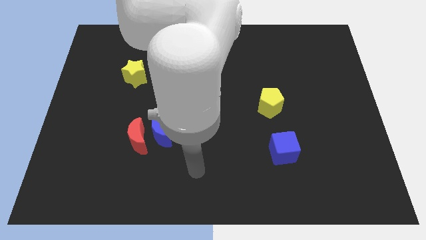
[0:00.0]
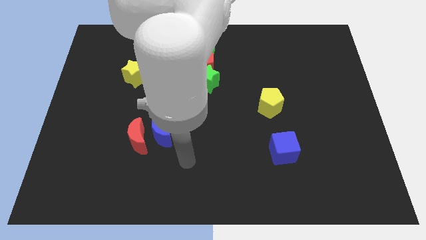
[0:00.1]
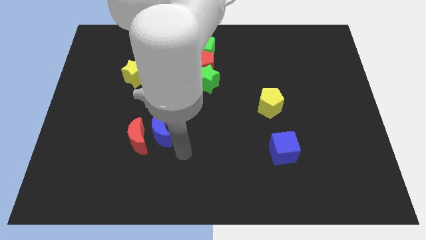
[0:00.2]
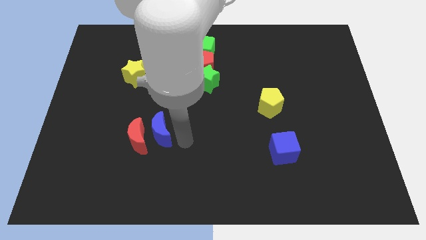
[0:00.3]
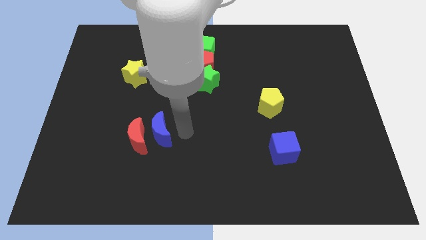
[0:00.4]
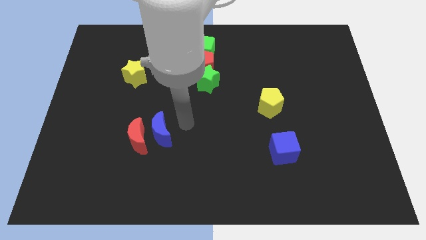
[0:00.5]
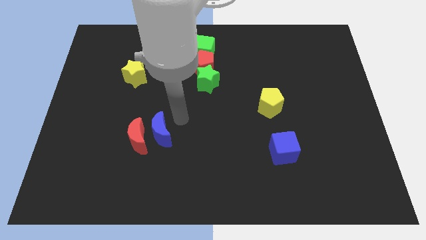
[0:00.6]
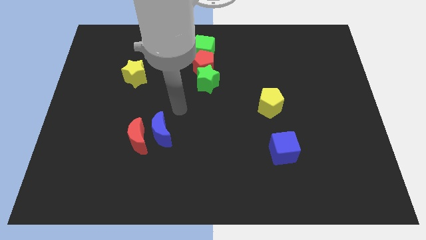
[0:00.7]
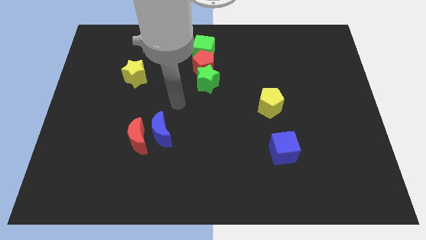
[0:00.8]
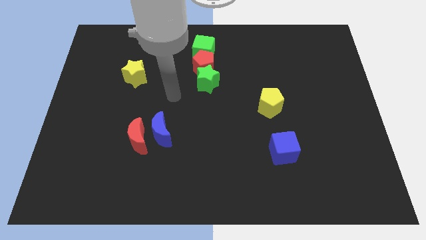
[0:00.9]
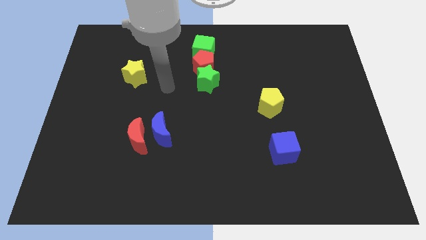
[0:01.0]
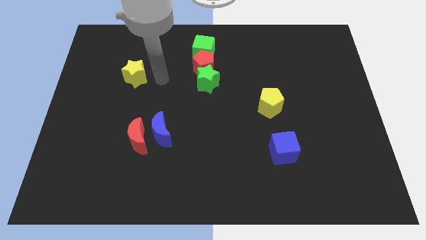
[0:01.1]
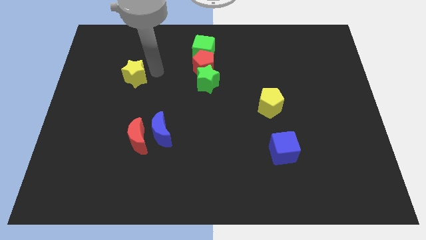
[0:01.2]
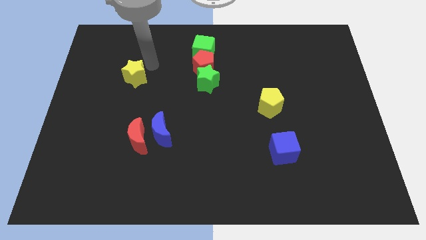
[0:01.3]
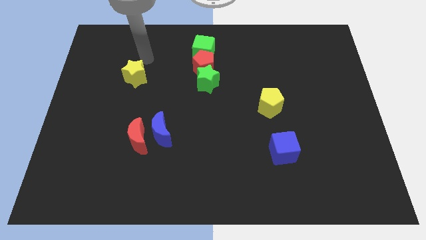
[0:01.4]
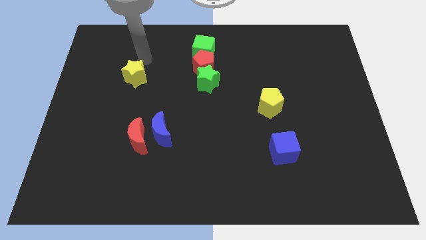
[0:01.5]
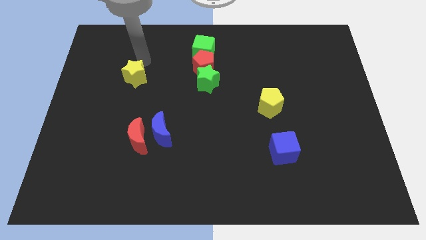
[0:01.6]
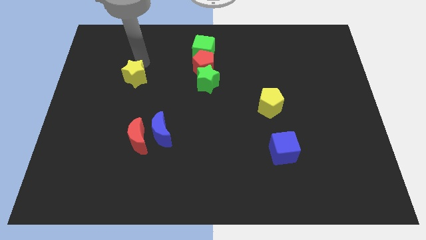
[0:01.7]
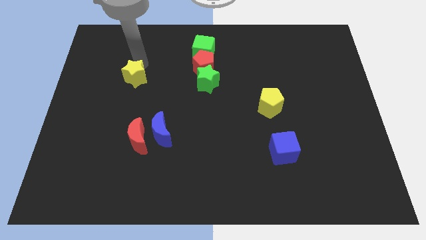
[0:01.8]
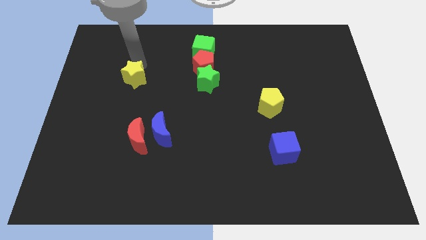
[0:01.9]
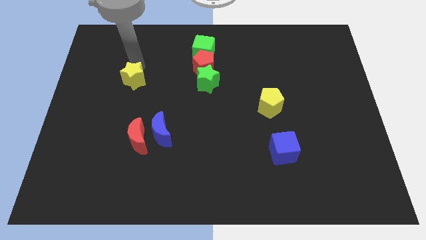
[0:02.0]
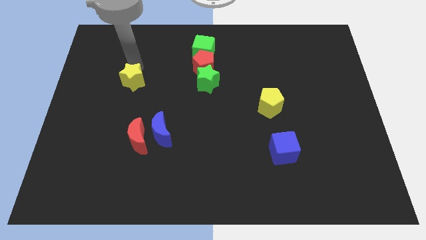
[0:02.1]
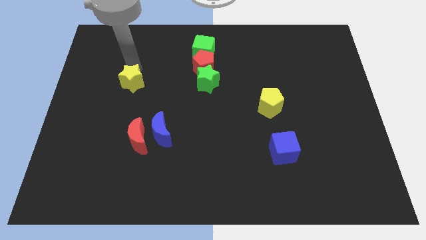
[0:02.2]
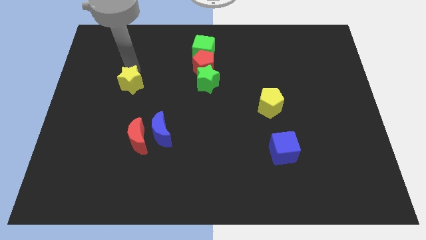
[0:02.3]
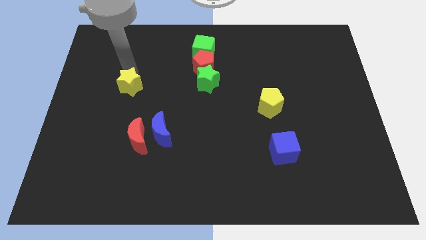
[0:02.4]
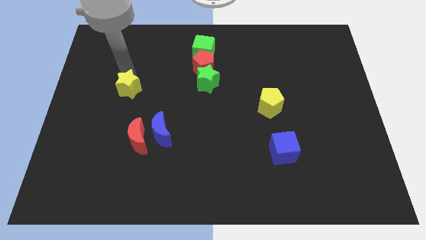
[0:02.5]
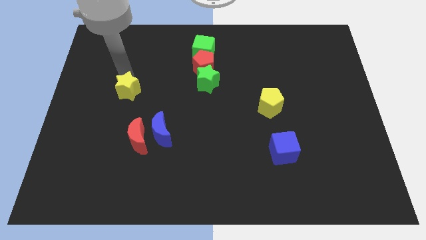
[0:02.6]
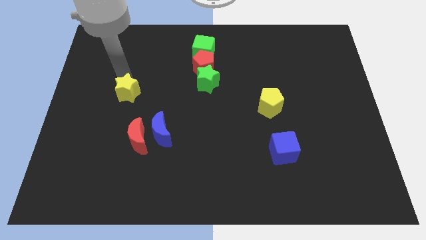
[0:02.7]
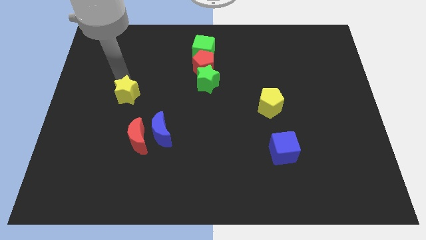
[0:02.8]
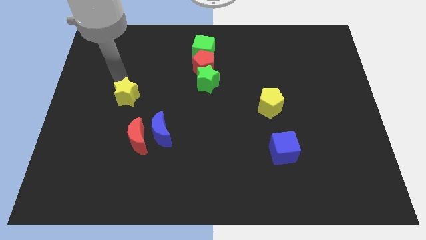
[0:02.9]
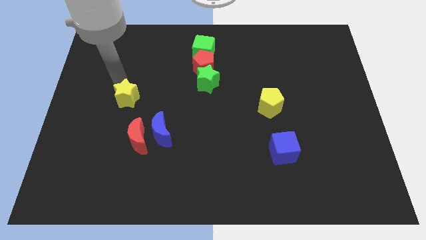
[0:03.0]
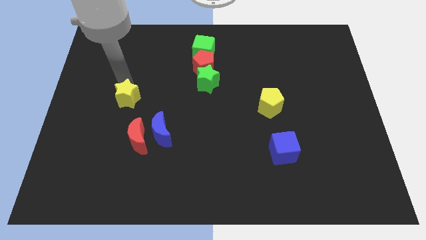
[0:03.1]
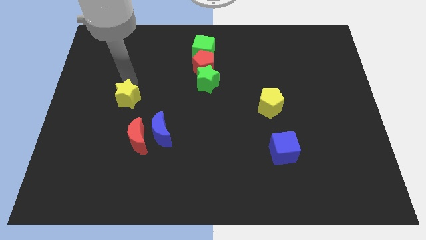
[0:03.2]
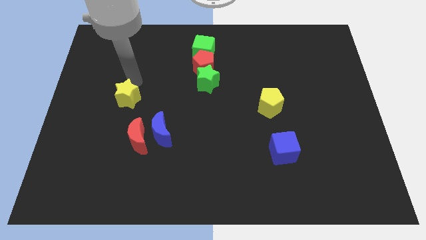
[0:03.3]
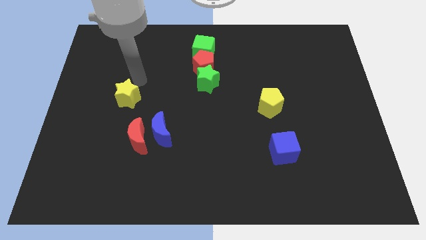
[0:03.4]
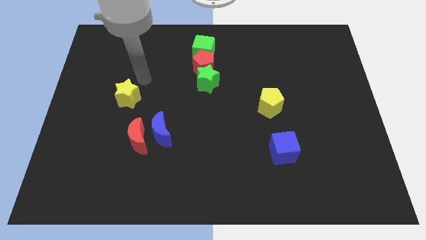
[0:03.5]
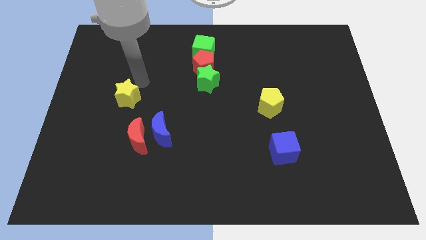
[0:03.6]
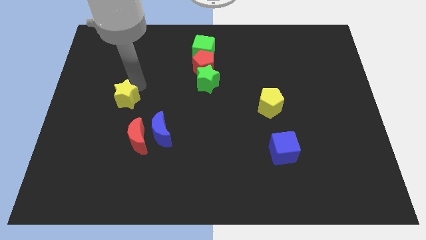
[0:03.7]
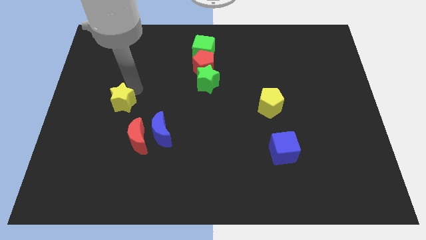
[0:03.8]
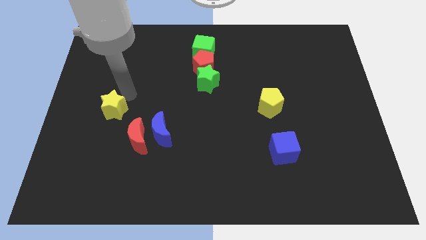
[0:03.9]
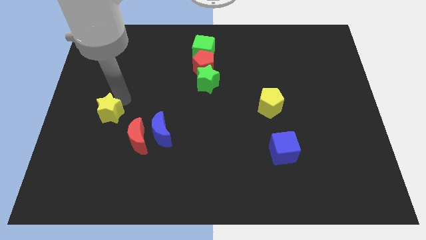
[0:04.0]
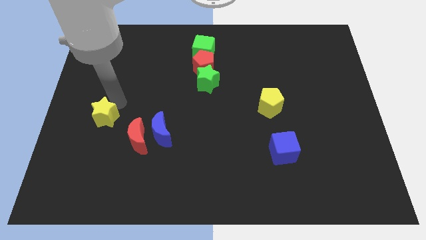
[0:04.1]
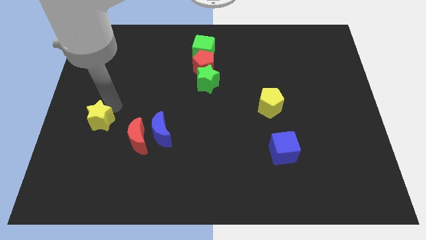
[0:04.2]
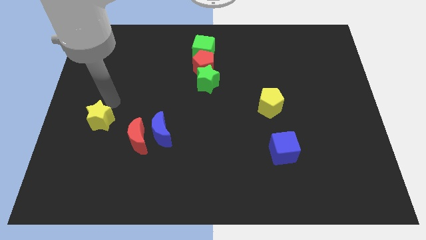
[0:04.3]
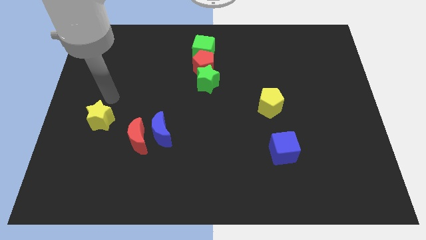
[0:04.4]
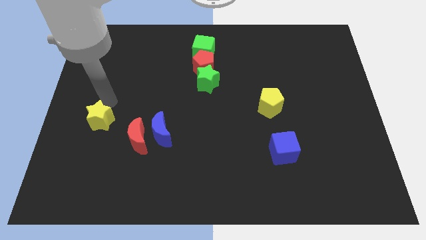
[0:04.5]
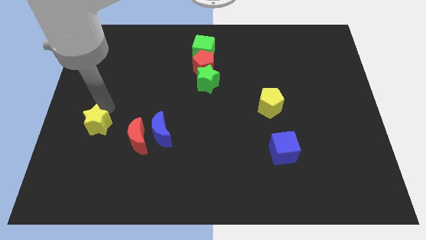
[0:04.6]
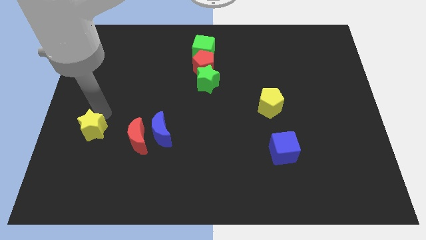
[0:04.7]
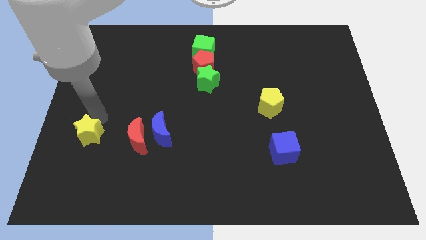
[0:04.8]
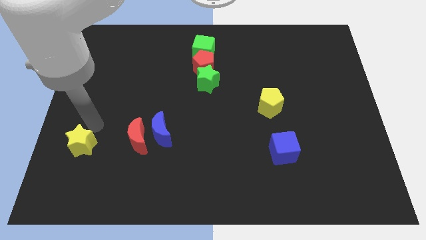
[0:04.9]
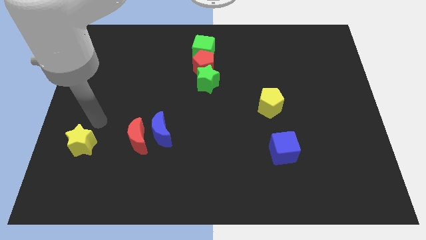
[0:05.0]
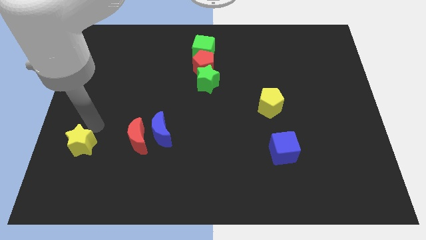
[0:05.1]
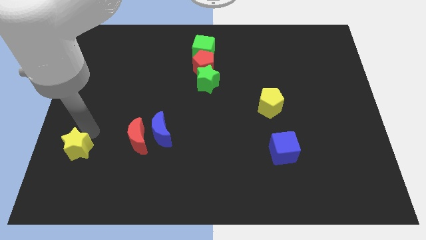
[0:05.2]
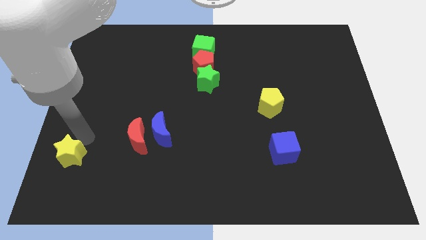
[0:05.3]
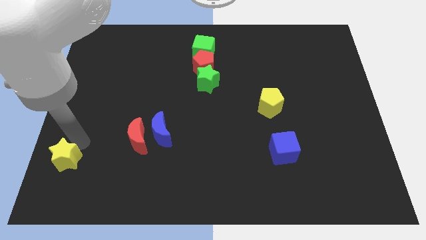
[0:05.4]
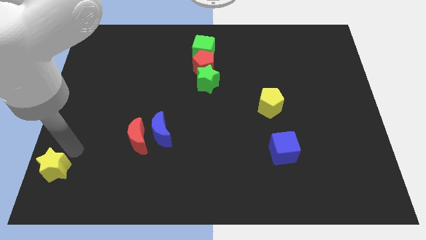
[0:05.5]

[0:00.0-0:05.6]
push the yellow star to the bottom left of the board

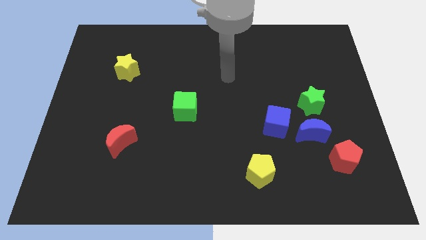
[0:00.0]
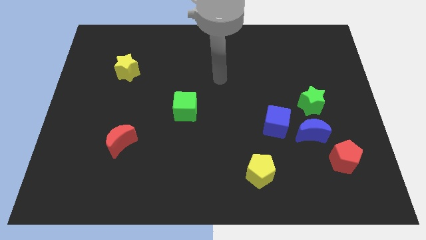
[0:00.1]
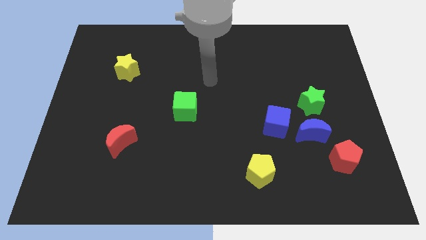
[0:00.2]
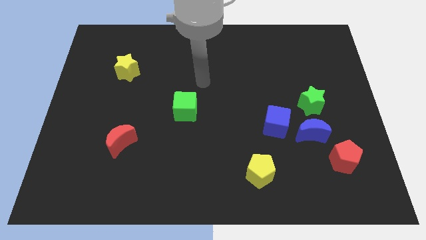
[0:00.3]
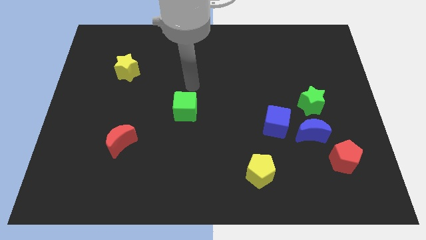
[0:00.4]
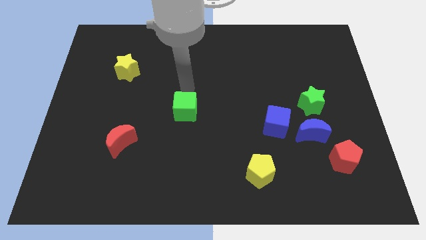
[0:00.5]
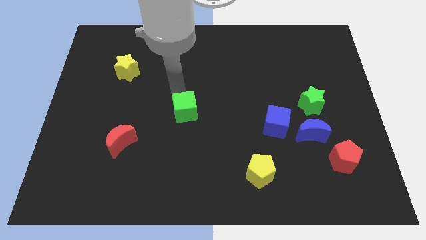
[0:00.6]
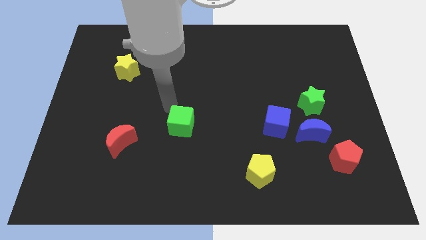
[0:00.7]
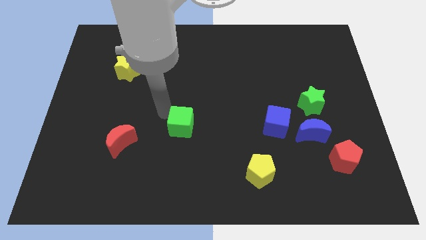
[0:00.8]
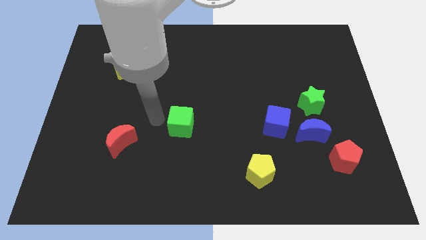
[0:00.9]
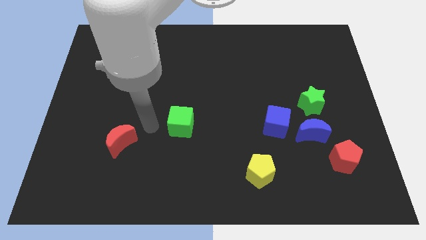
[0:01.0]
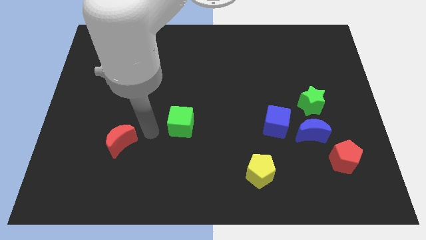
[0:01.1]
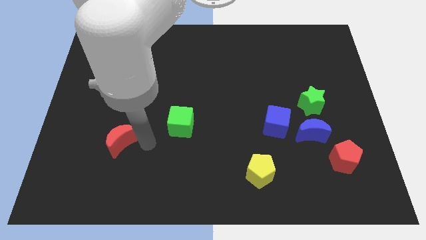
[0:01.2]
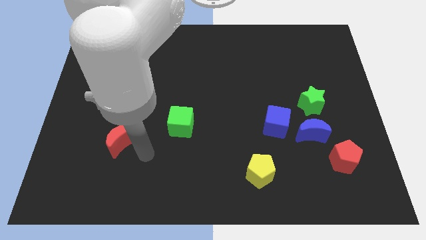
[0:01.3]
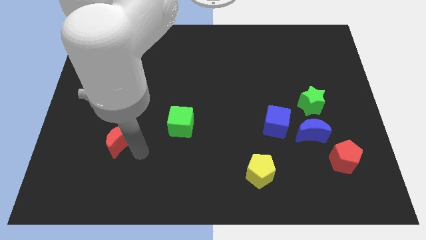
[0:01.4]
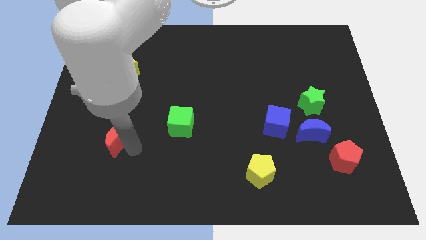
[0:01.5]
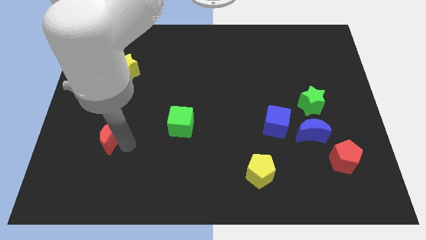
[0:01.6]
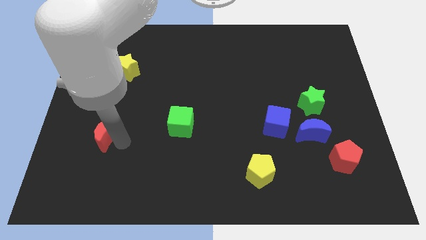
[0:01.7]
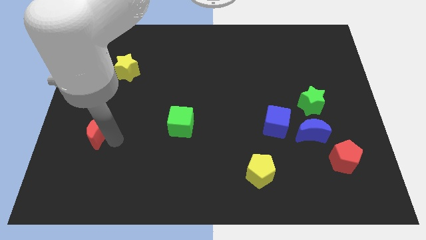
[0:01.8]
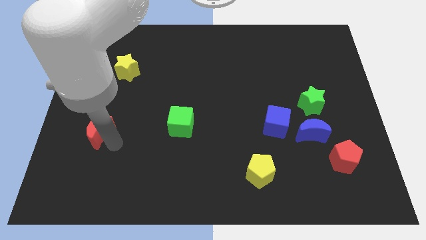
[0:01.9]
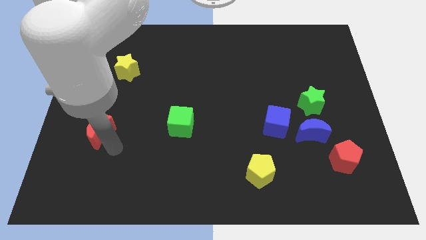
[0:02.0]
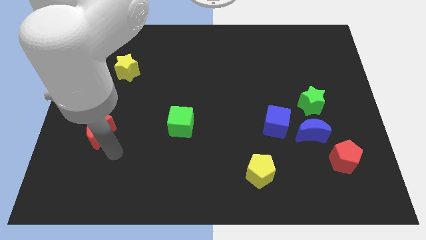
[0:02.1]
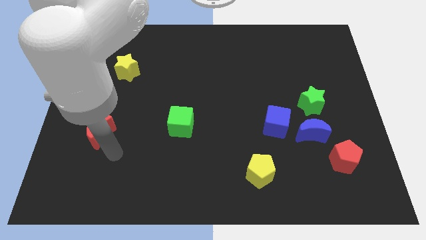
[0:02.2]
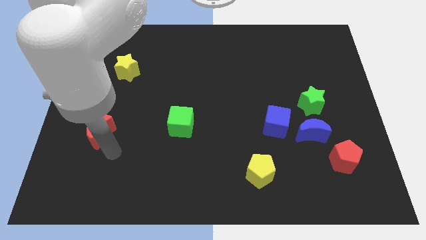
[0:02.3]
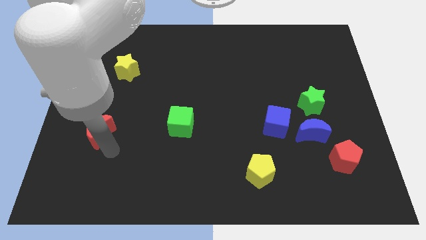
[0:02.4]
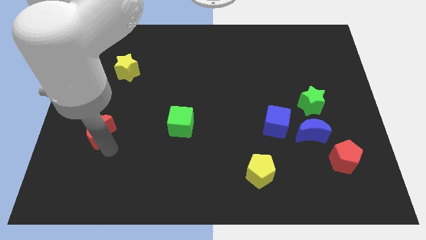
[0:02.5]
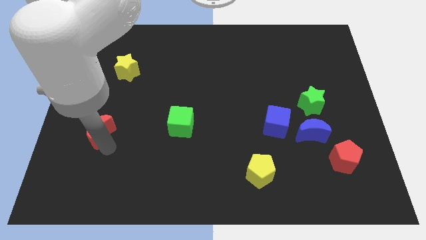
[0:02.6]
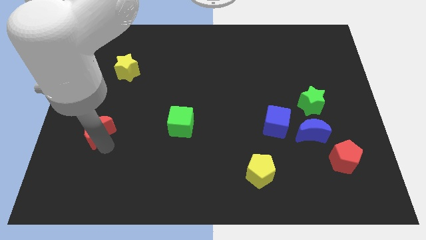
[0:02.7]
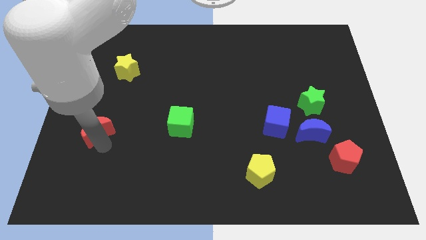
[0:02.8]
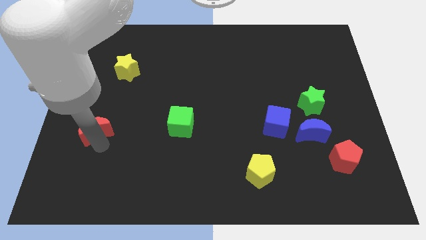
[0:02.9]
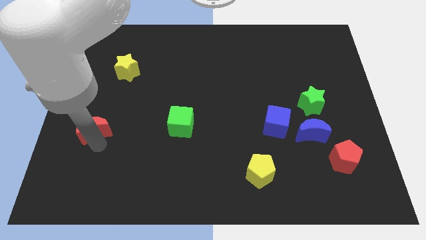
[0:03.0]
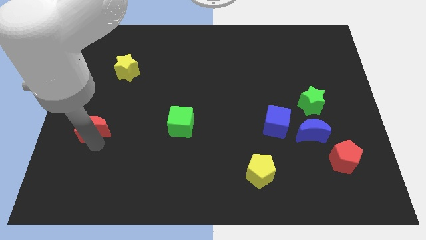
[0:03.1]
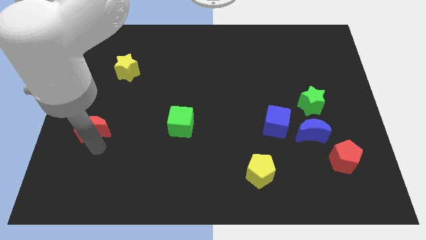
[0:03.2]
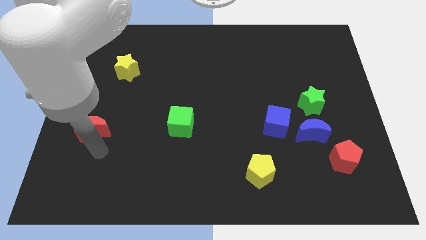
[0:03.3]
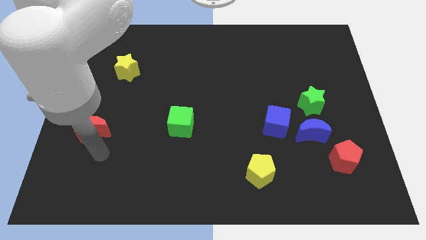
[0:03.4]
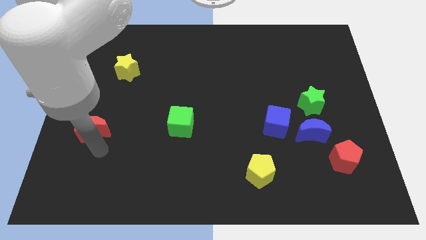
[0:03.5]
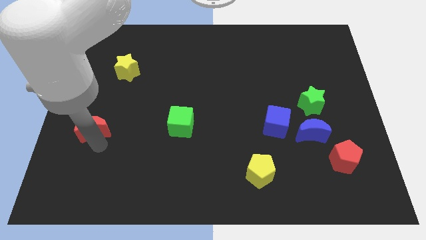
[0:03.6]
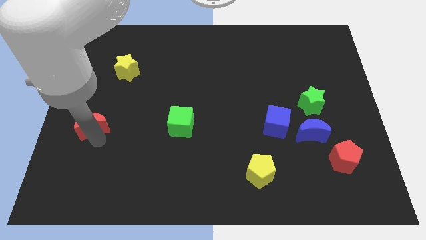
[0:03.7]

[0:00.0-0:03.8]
slide the red moon to the center left
